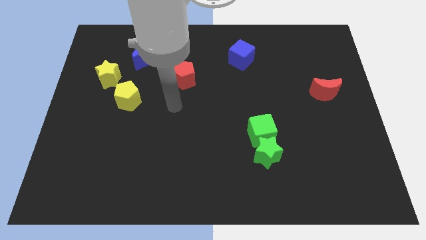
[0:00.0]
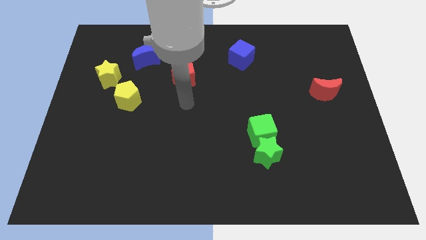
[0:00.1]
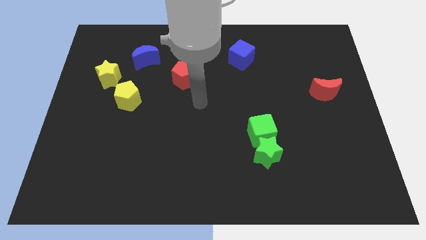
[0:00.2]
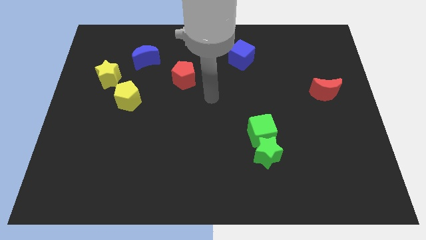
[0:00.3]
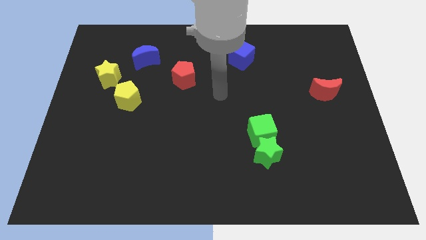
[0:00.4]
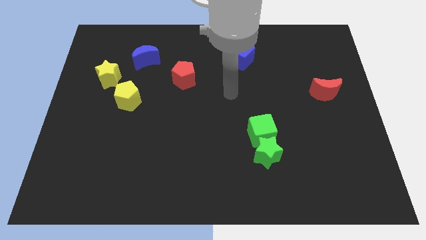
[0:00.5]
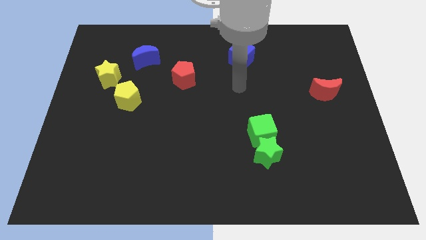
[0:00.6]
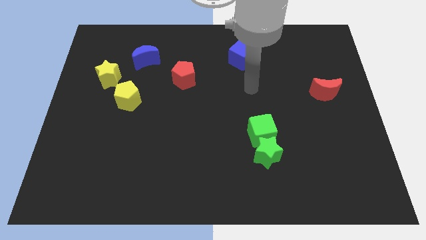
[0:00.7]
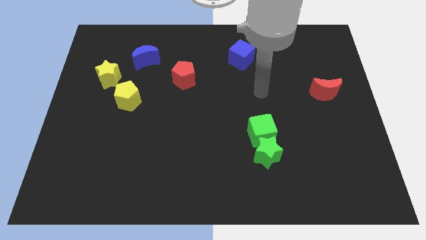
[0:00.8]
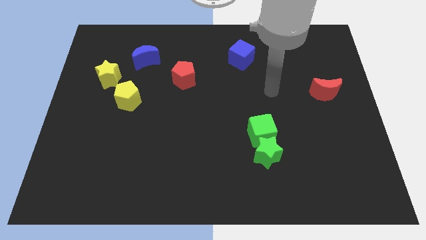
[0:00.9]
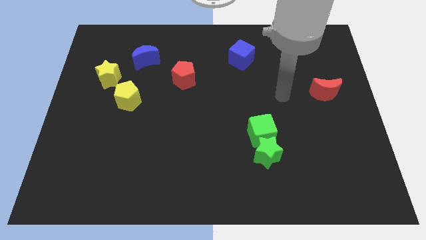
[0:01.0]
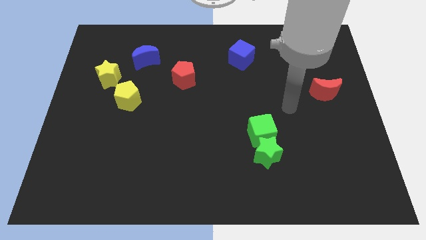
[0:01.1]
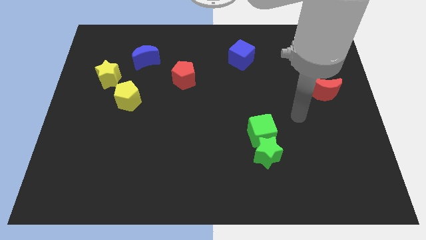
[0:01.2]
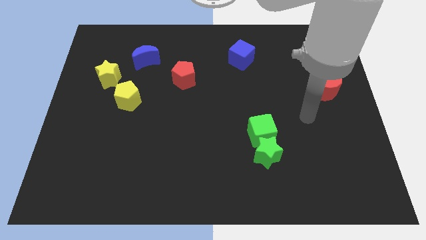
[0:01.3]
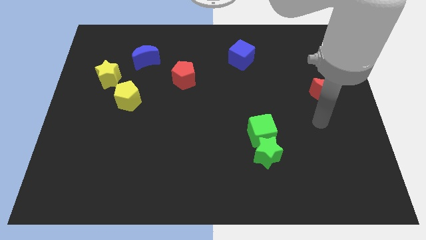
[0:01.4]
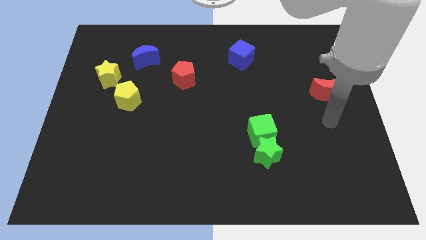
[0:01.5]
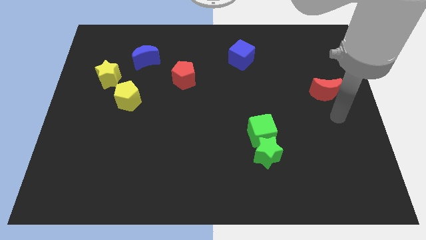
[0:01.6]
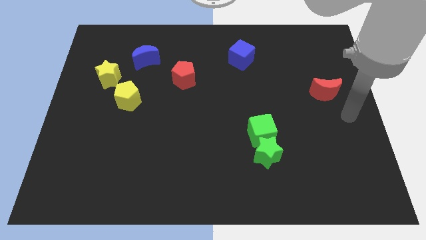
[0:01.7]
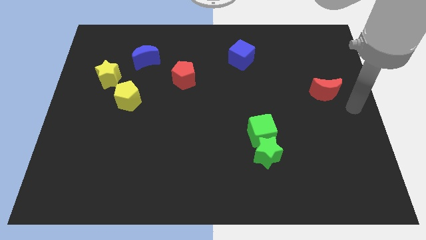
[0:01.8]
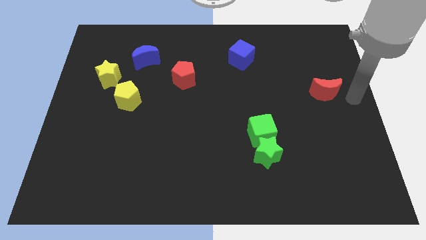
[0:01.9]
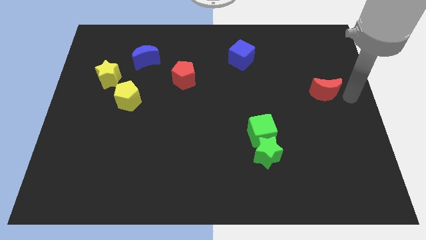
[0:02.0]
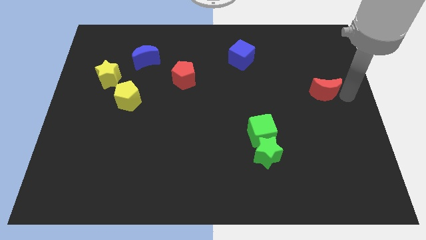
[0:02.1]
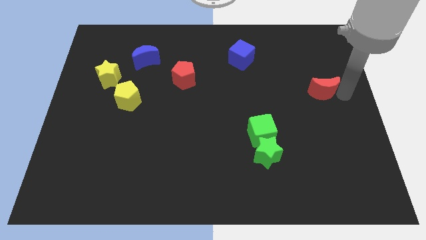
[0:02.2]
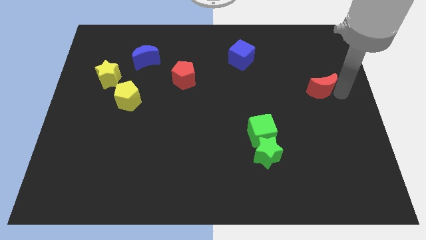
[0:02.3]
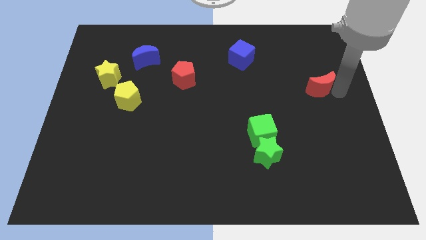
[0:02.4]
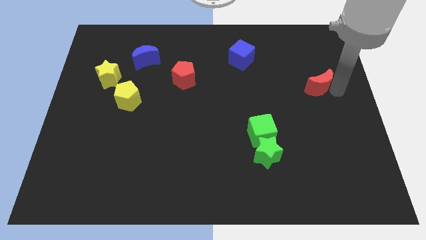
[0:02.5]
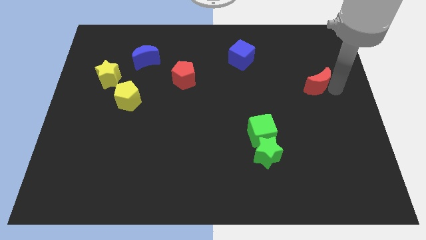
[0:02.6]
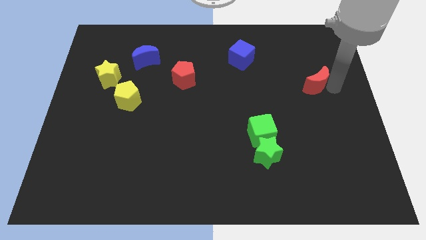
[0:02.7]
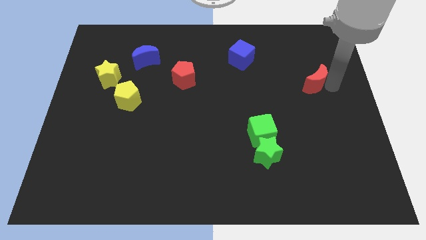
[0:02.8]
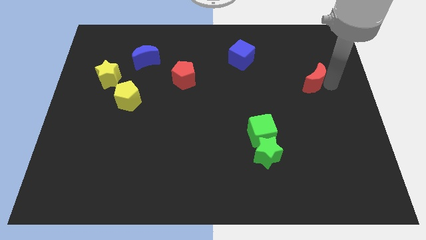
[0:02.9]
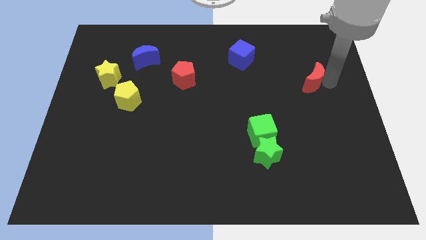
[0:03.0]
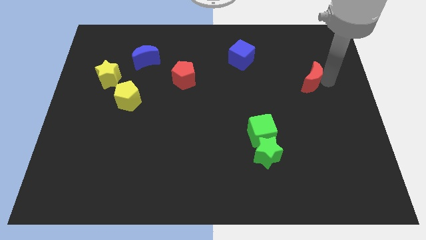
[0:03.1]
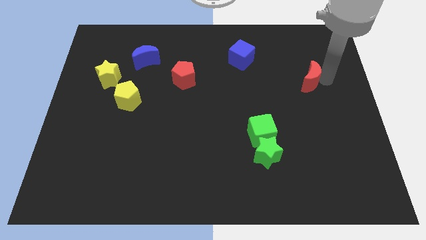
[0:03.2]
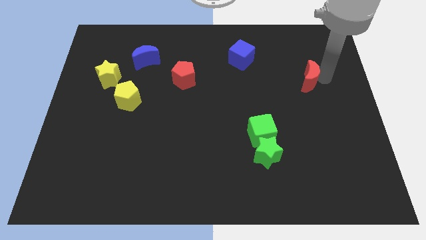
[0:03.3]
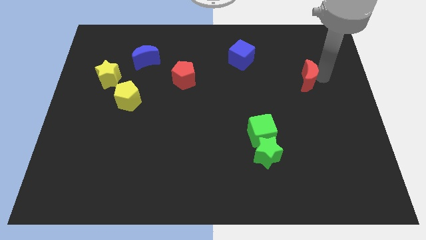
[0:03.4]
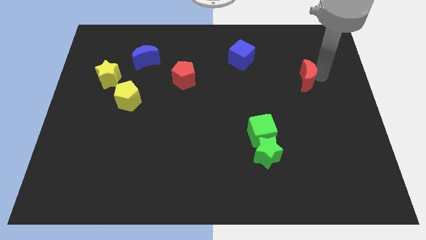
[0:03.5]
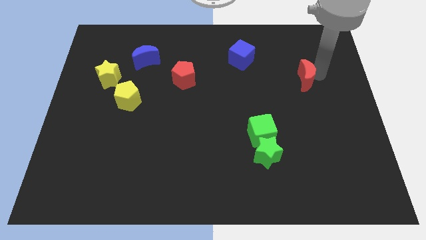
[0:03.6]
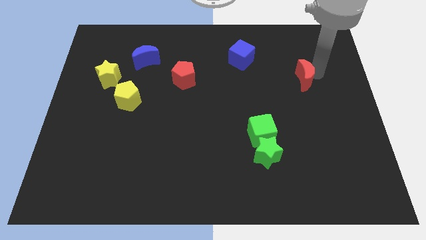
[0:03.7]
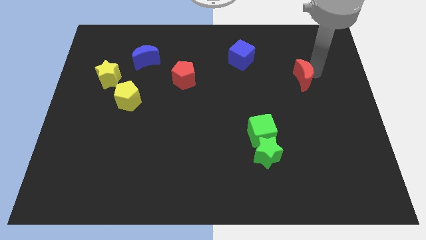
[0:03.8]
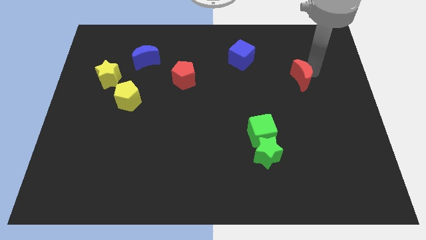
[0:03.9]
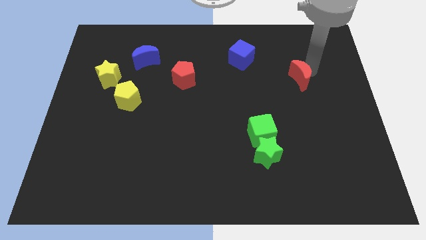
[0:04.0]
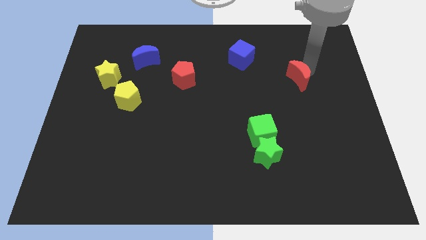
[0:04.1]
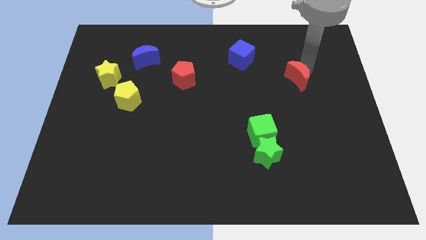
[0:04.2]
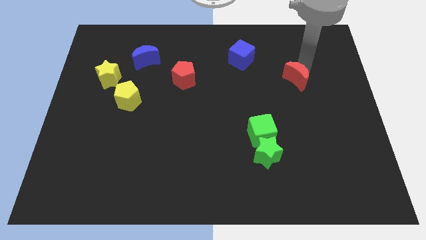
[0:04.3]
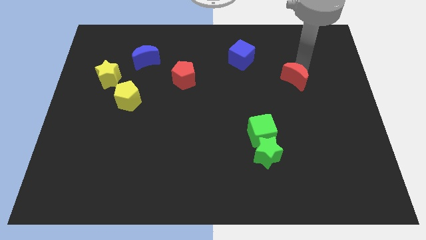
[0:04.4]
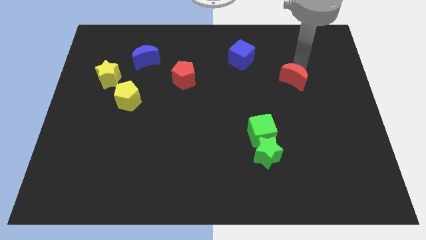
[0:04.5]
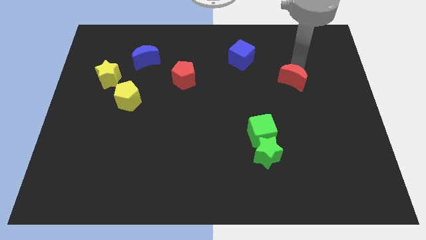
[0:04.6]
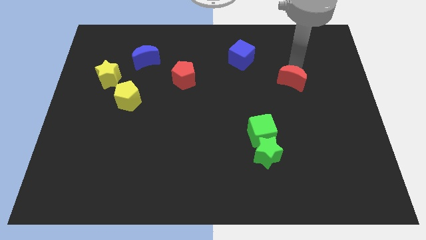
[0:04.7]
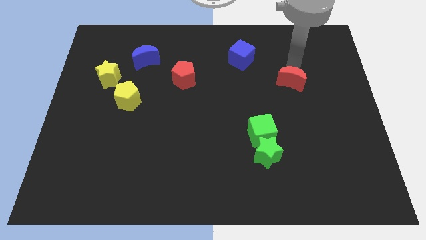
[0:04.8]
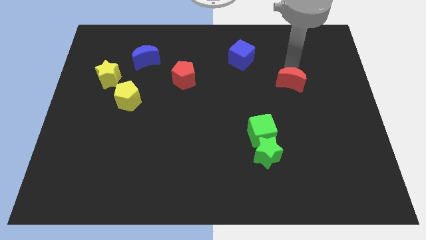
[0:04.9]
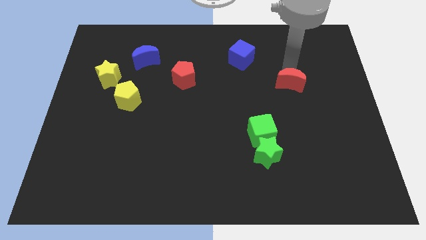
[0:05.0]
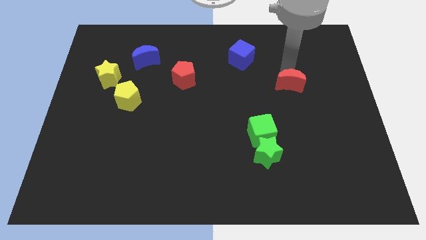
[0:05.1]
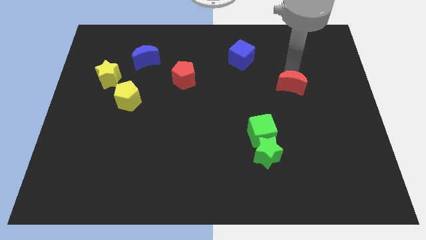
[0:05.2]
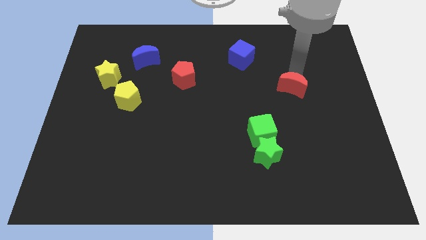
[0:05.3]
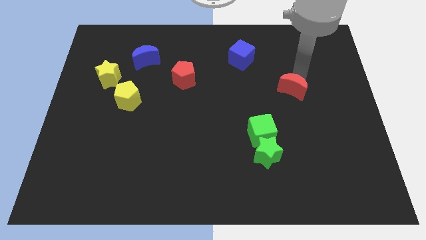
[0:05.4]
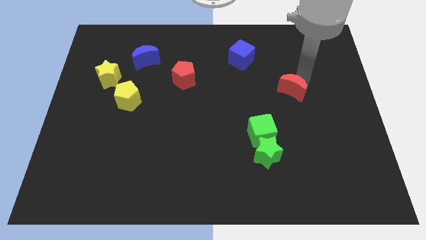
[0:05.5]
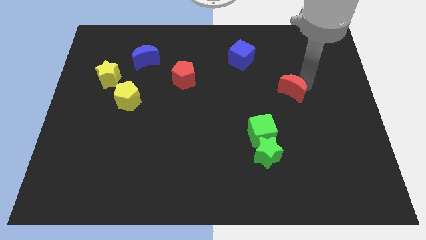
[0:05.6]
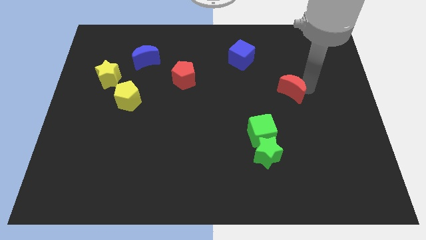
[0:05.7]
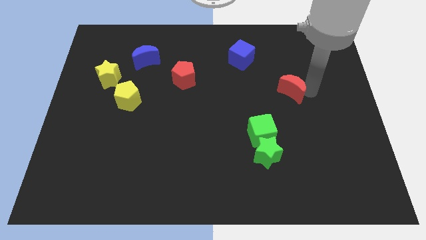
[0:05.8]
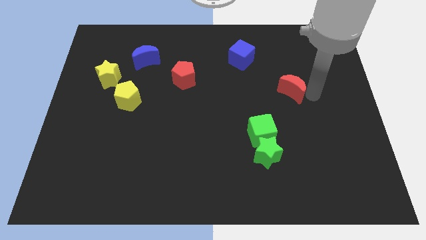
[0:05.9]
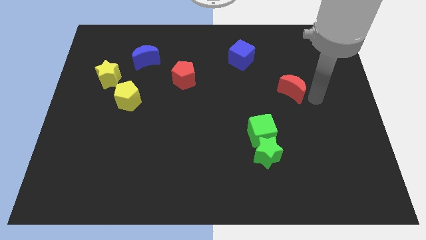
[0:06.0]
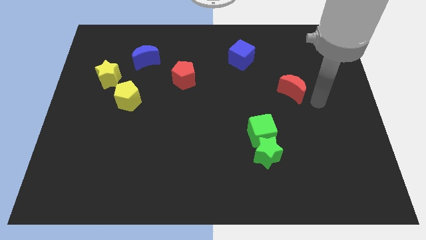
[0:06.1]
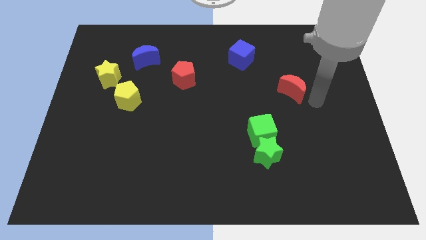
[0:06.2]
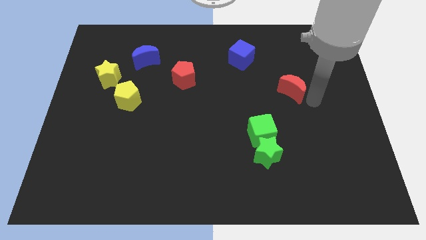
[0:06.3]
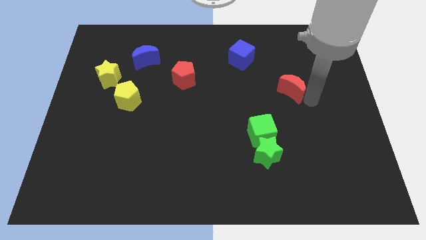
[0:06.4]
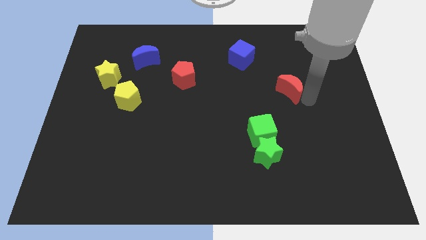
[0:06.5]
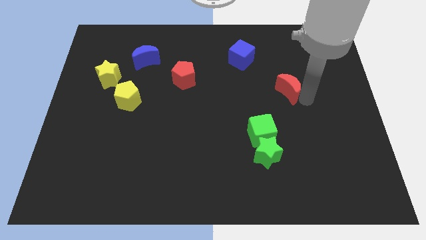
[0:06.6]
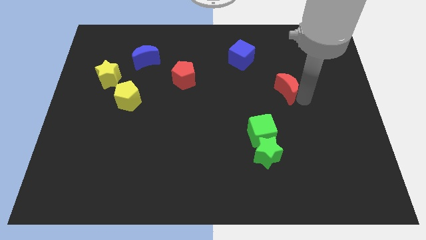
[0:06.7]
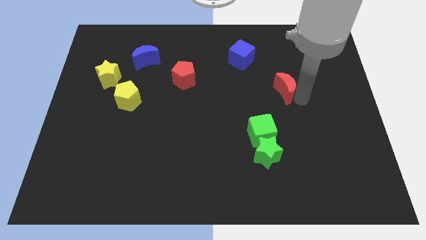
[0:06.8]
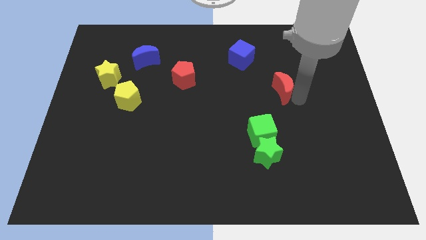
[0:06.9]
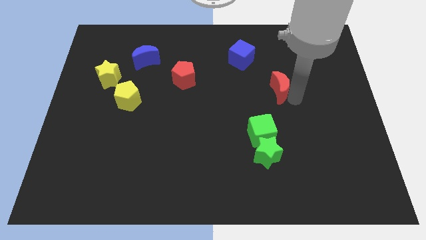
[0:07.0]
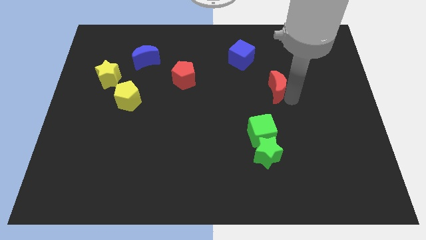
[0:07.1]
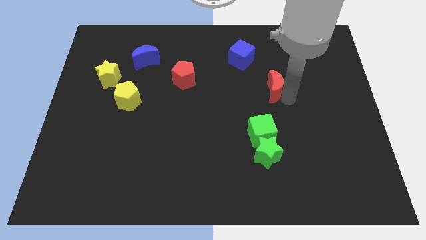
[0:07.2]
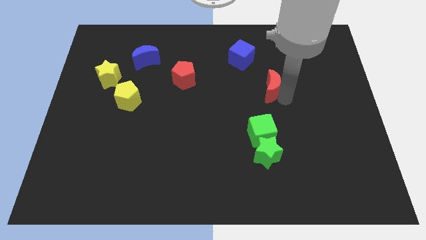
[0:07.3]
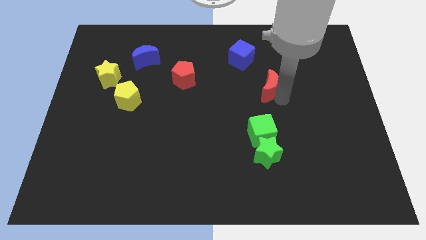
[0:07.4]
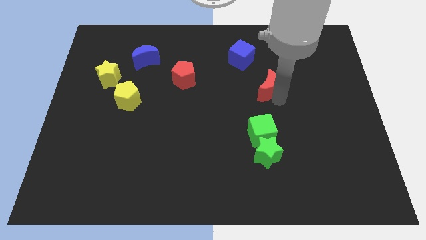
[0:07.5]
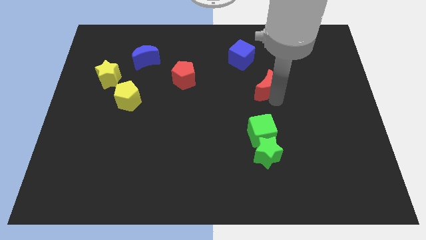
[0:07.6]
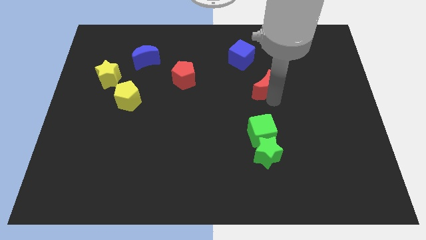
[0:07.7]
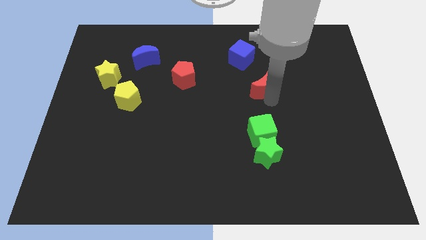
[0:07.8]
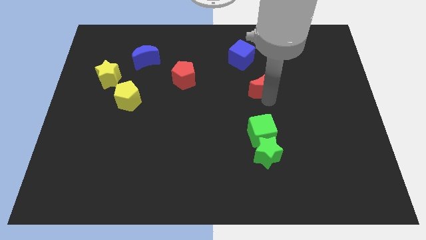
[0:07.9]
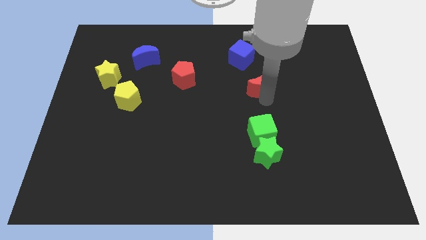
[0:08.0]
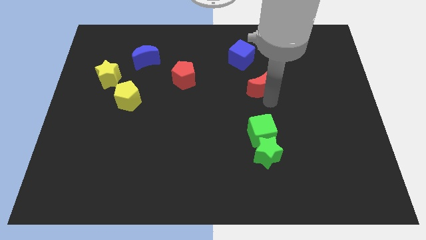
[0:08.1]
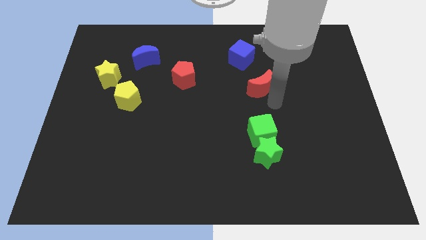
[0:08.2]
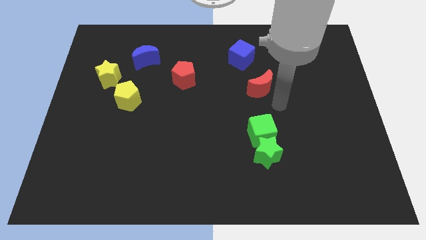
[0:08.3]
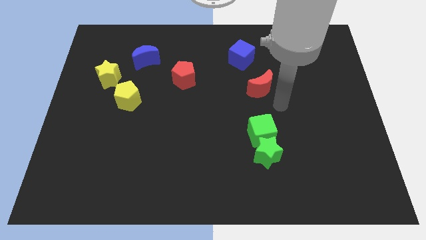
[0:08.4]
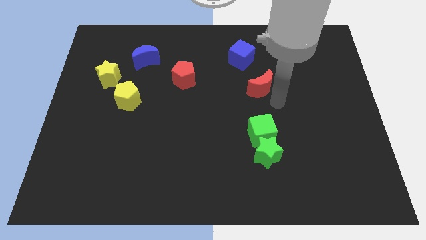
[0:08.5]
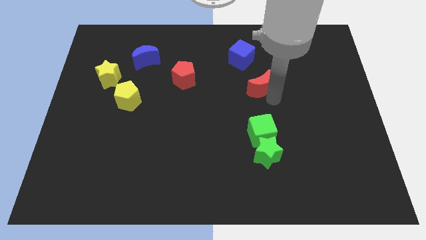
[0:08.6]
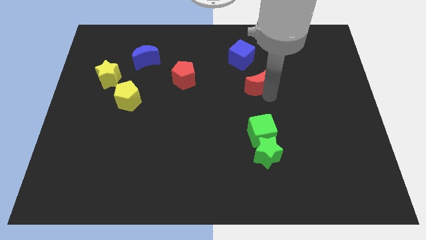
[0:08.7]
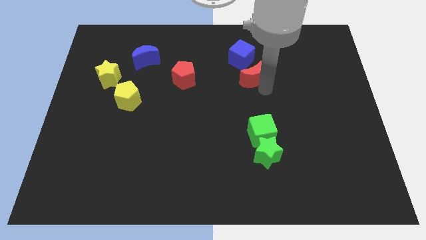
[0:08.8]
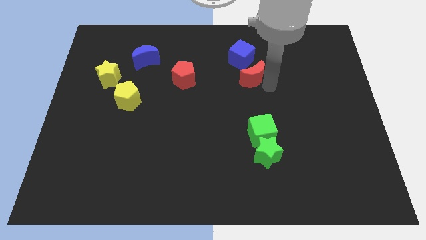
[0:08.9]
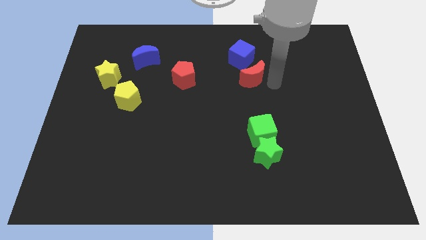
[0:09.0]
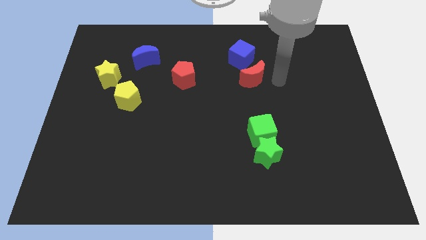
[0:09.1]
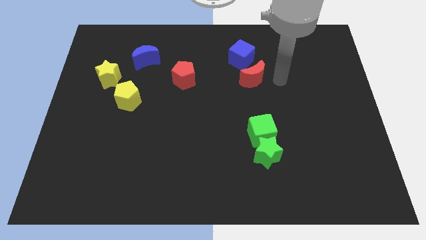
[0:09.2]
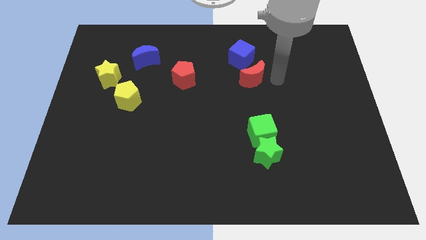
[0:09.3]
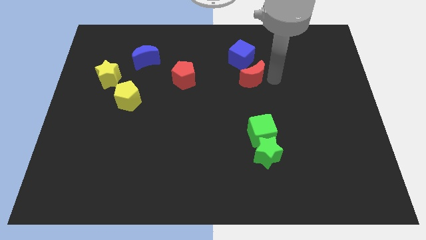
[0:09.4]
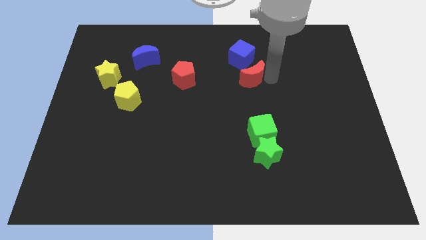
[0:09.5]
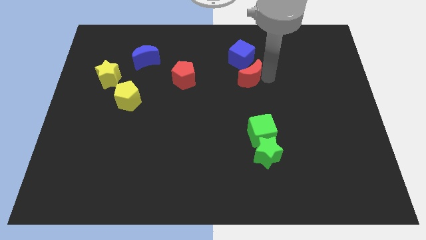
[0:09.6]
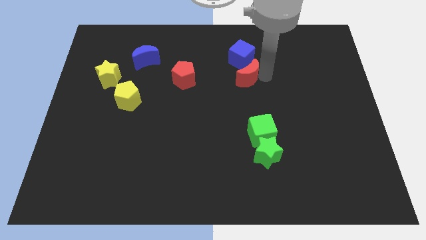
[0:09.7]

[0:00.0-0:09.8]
put the red moon to the right of the red pentagon
